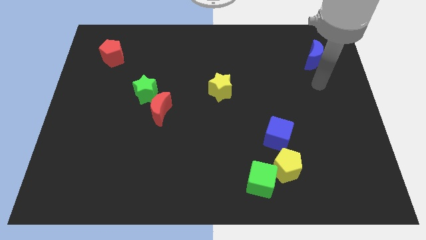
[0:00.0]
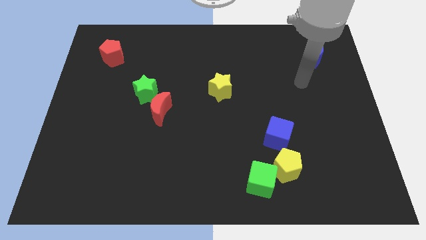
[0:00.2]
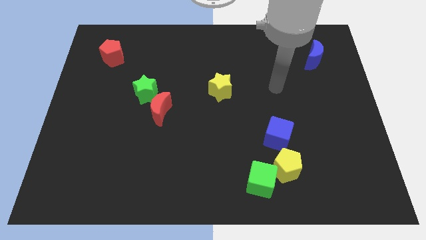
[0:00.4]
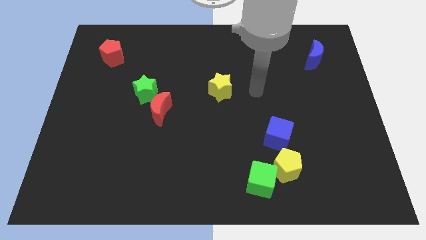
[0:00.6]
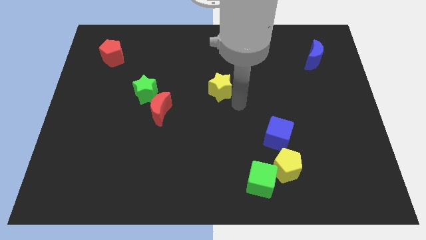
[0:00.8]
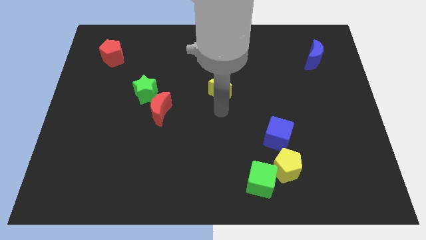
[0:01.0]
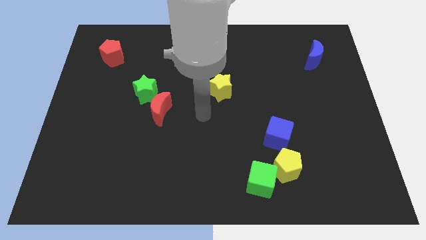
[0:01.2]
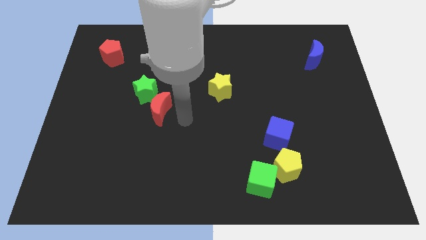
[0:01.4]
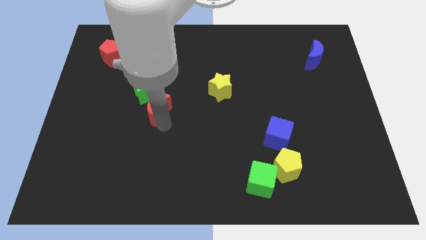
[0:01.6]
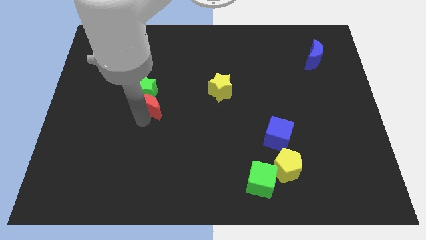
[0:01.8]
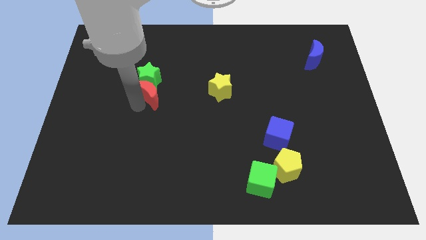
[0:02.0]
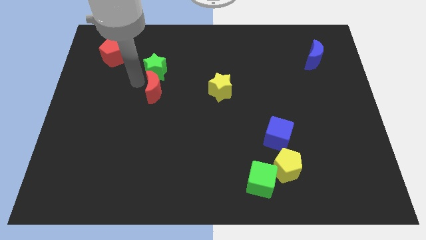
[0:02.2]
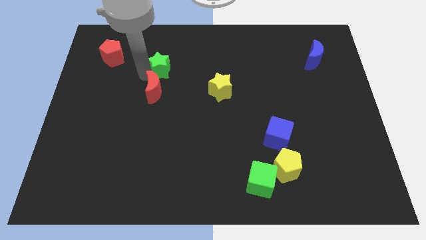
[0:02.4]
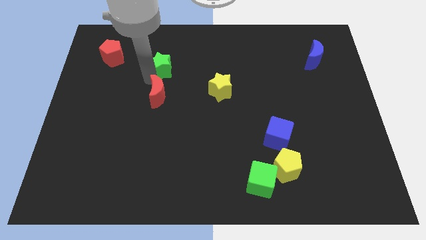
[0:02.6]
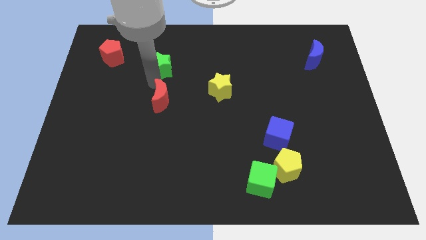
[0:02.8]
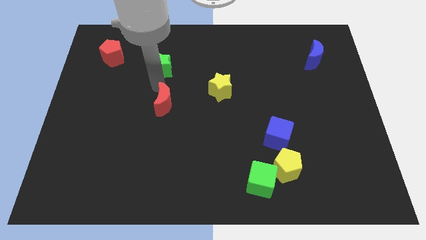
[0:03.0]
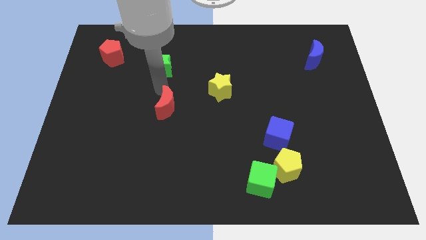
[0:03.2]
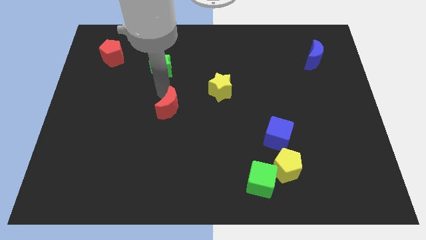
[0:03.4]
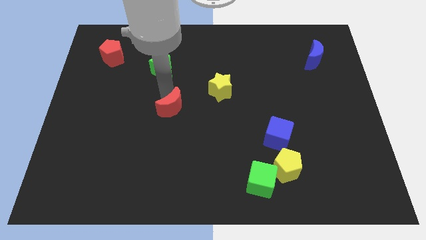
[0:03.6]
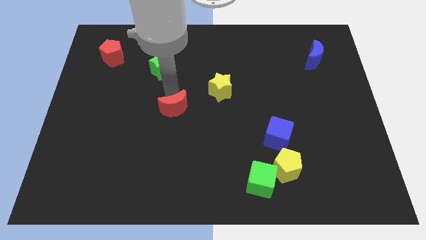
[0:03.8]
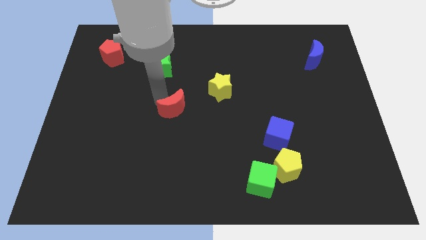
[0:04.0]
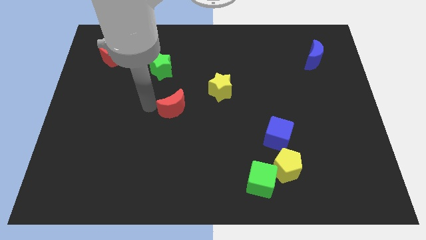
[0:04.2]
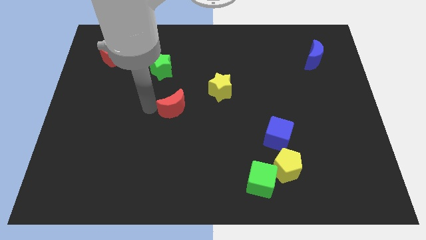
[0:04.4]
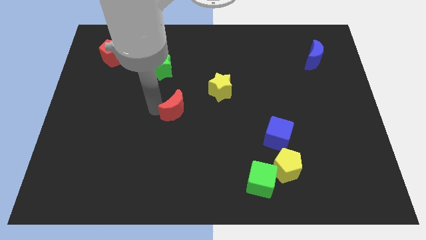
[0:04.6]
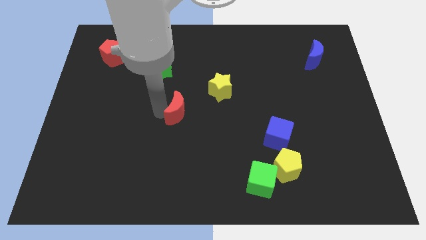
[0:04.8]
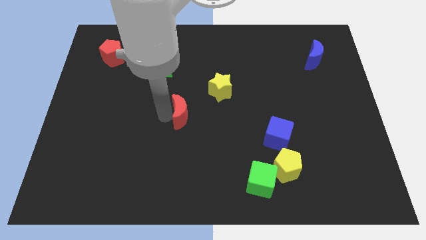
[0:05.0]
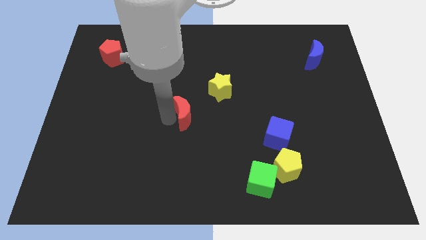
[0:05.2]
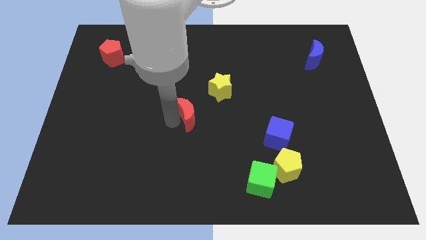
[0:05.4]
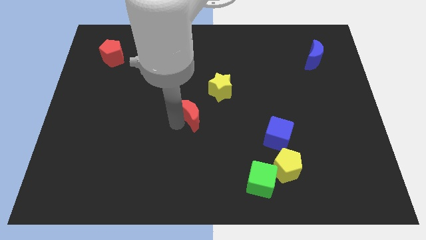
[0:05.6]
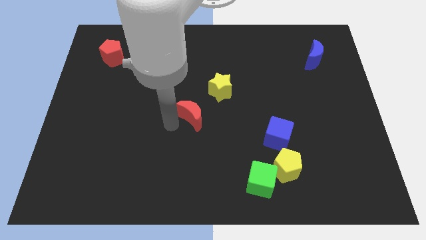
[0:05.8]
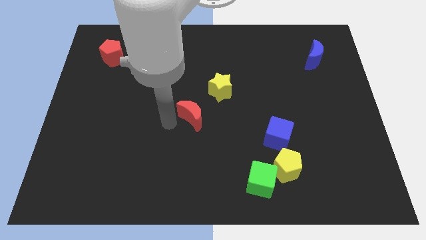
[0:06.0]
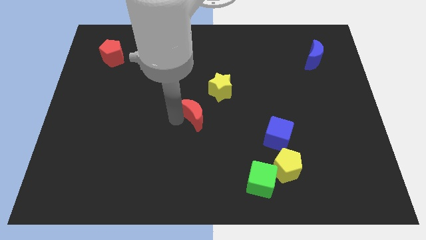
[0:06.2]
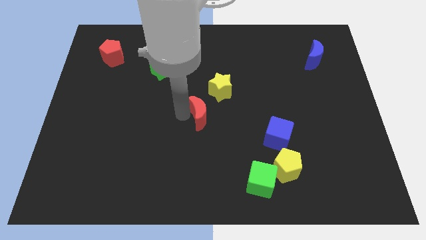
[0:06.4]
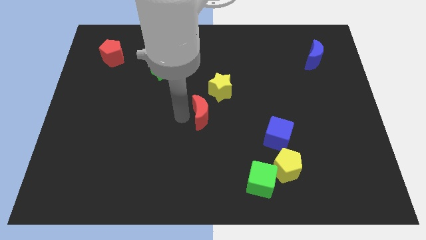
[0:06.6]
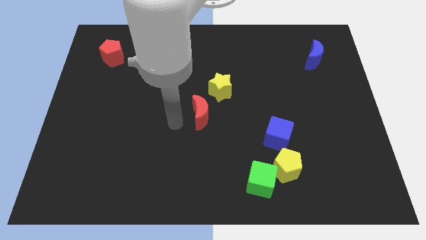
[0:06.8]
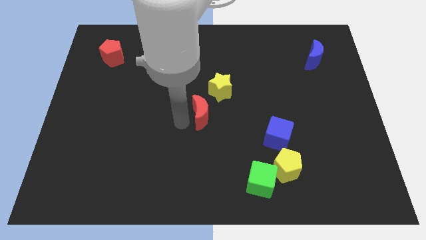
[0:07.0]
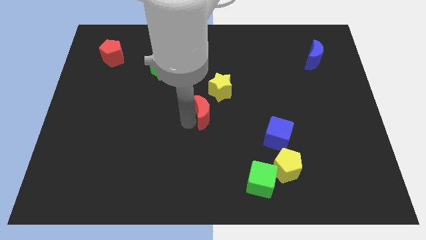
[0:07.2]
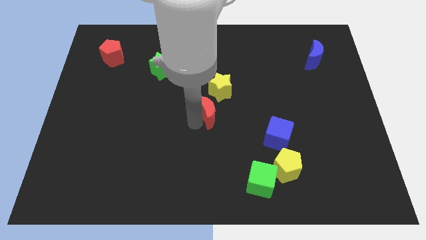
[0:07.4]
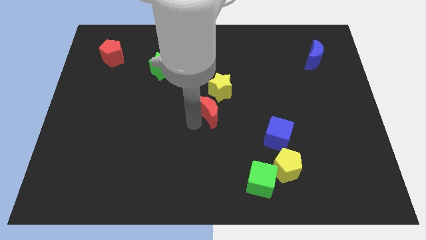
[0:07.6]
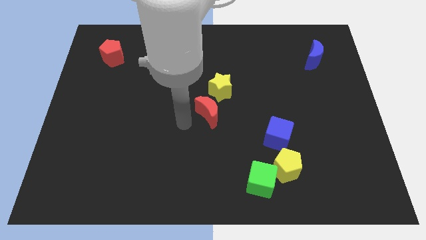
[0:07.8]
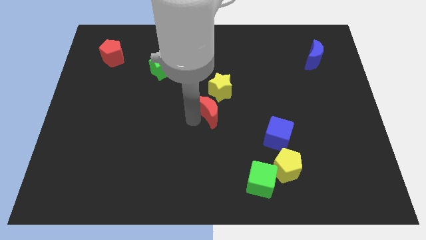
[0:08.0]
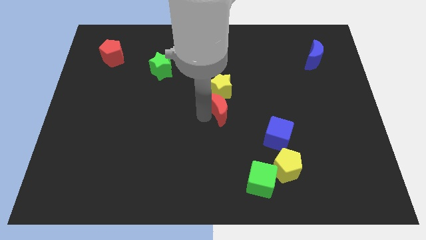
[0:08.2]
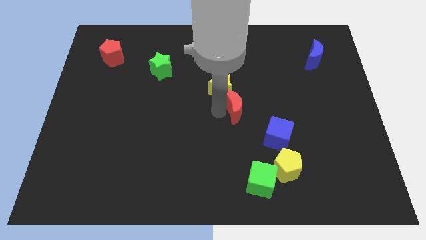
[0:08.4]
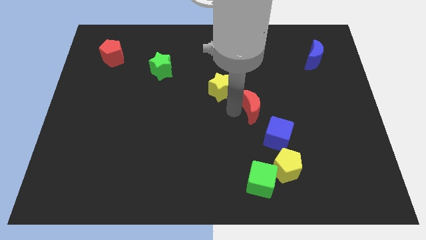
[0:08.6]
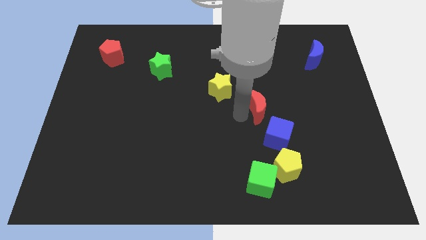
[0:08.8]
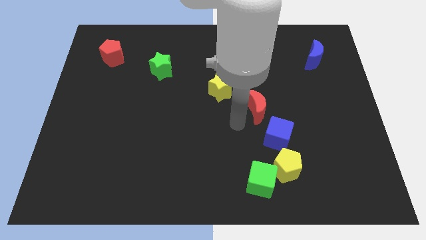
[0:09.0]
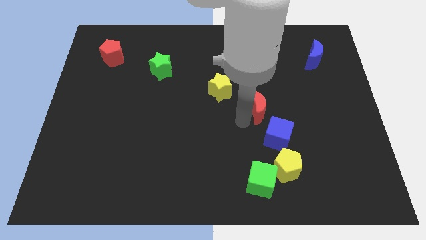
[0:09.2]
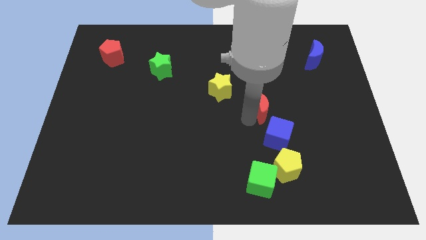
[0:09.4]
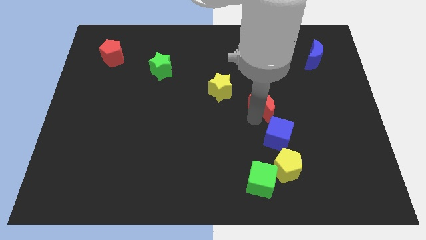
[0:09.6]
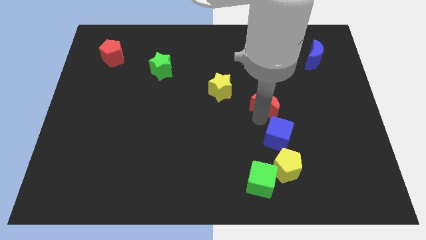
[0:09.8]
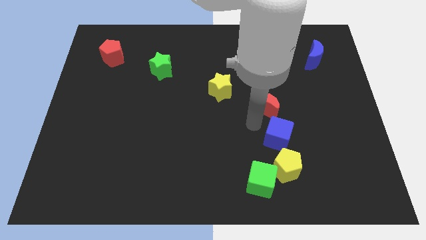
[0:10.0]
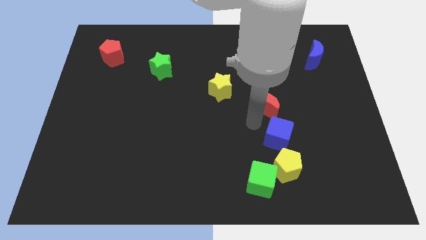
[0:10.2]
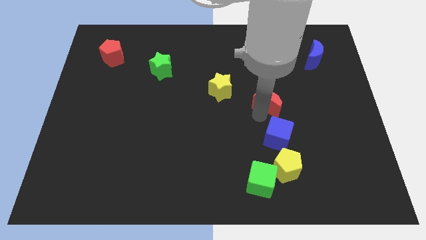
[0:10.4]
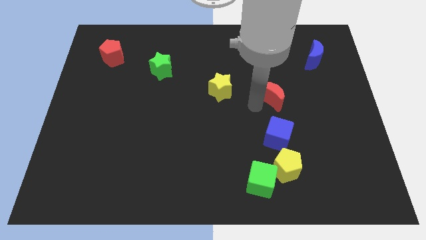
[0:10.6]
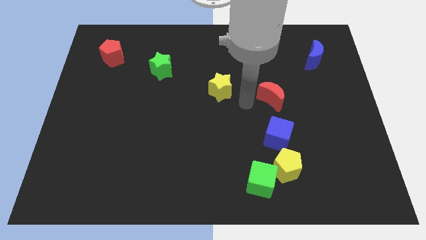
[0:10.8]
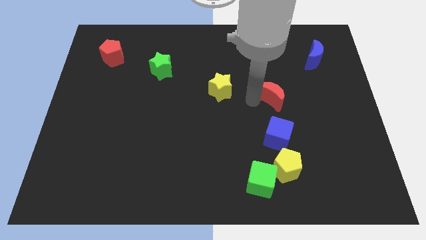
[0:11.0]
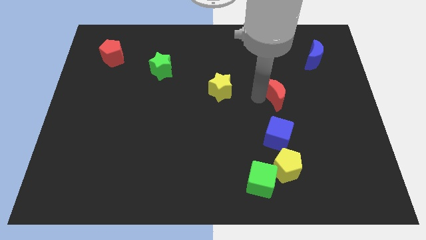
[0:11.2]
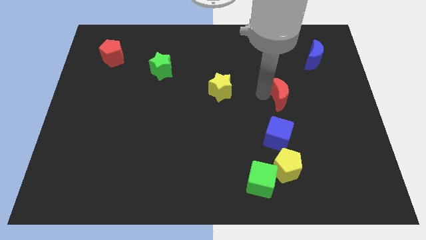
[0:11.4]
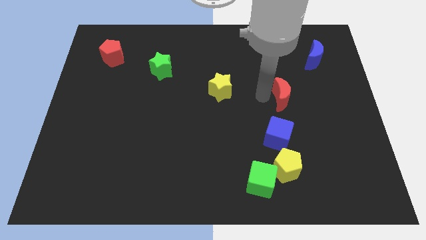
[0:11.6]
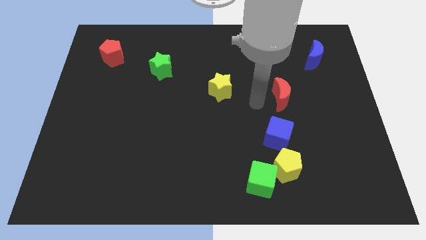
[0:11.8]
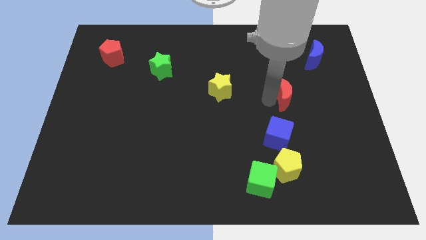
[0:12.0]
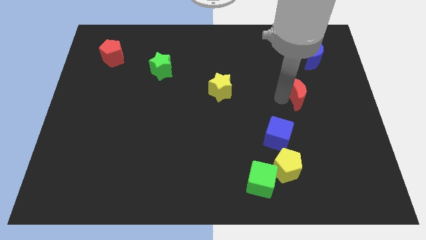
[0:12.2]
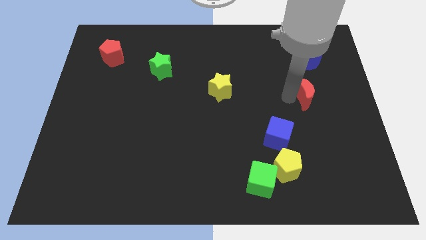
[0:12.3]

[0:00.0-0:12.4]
slide the red moon to the bottom of the blue moon

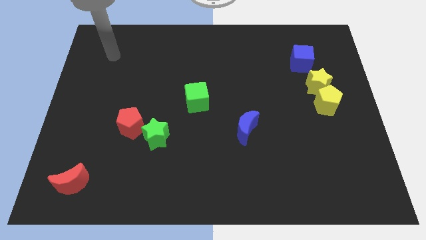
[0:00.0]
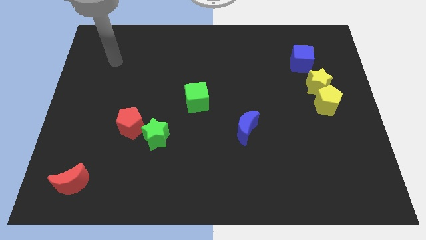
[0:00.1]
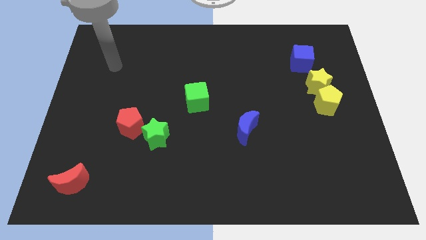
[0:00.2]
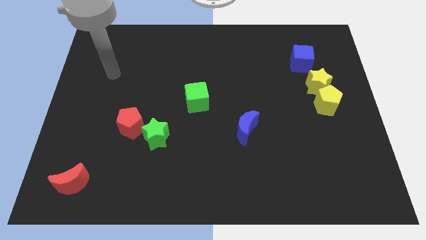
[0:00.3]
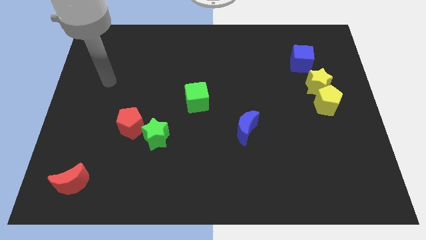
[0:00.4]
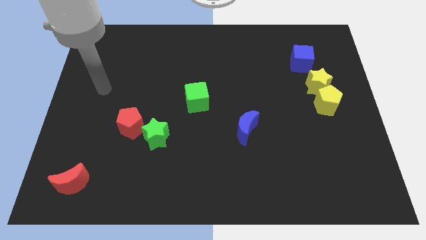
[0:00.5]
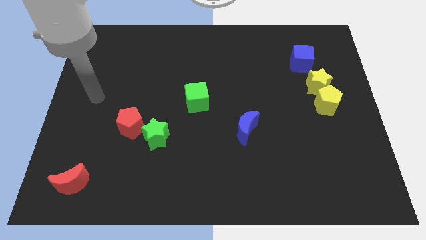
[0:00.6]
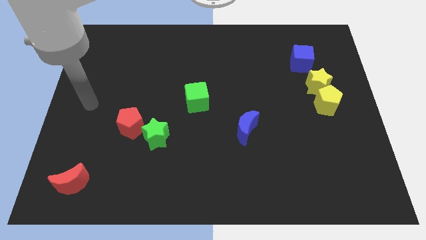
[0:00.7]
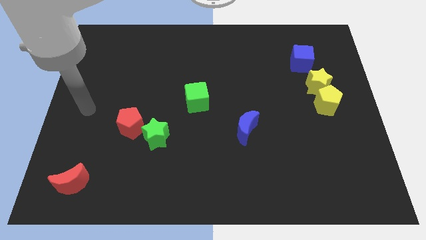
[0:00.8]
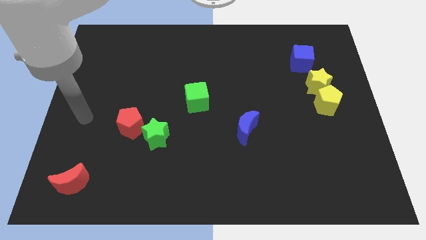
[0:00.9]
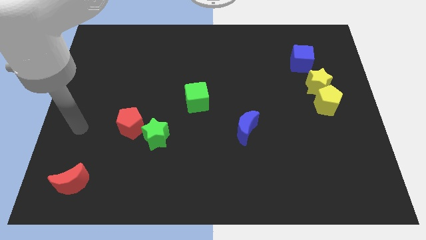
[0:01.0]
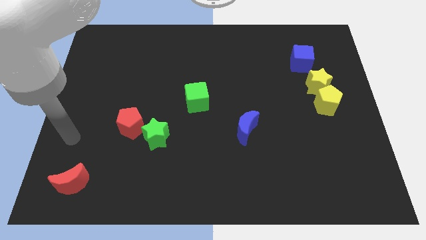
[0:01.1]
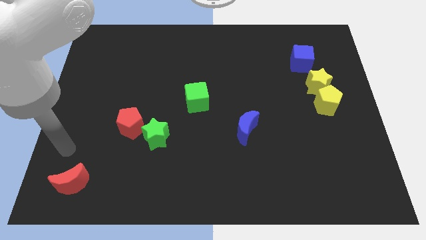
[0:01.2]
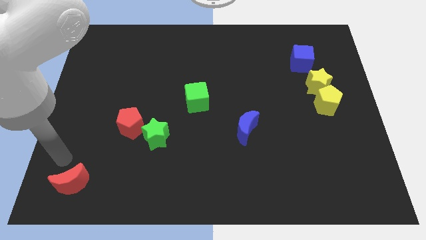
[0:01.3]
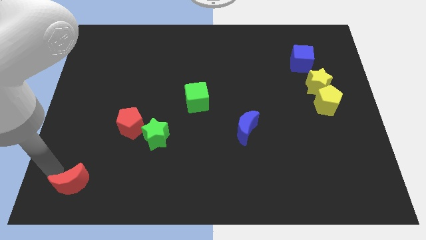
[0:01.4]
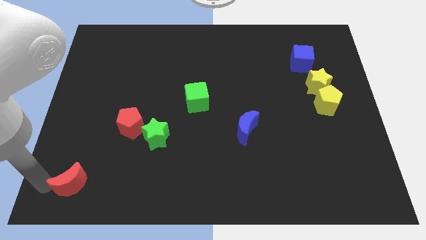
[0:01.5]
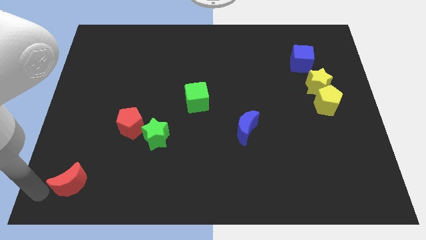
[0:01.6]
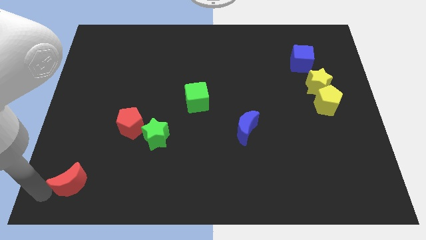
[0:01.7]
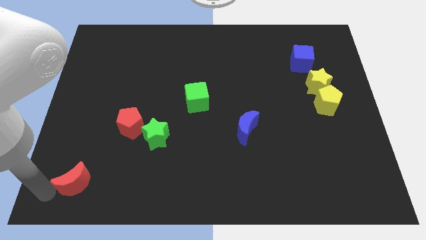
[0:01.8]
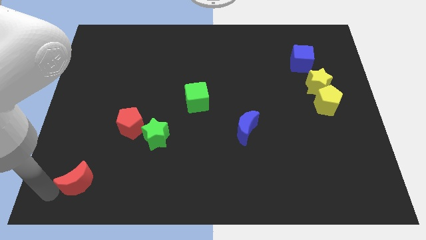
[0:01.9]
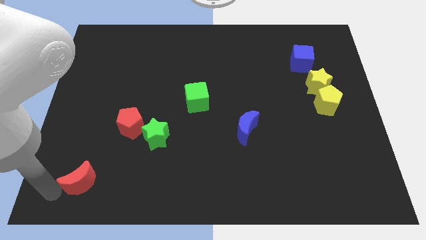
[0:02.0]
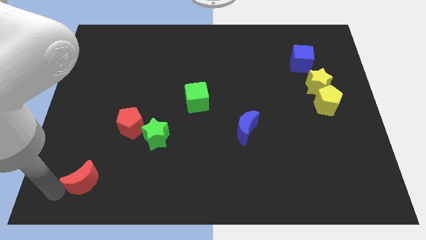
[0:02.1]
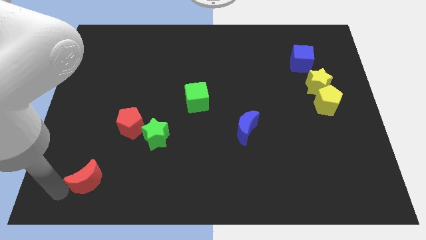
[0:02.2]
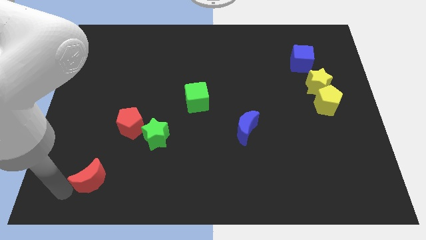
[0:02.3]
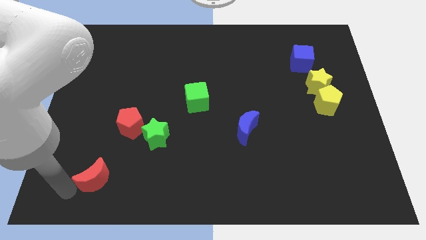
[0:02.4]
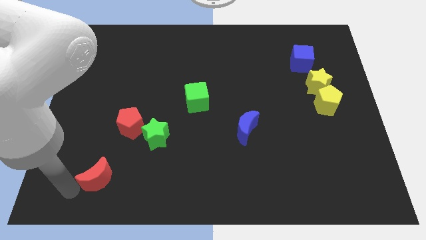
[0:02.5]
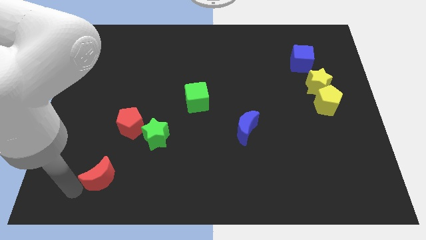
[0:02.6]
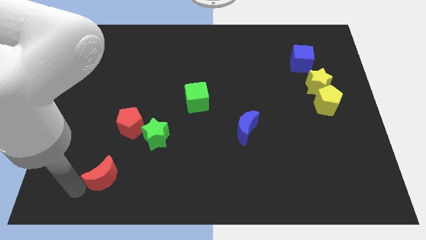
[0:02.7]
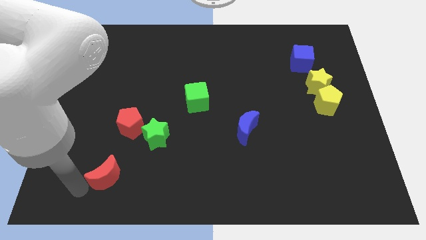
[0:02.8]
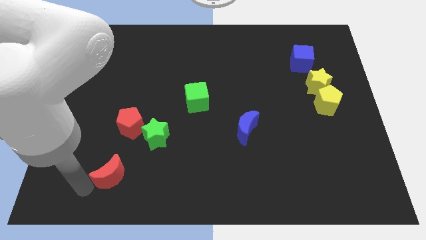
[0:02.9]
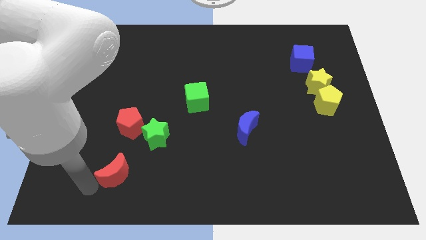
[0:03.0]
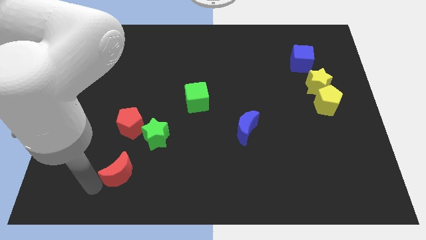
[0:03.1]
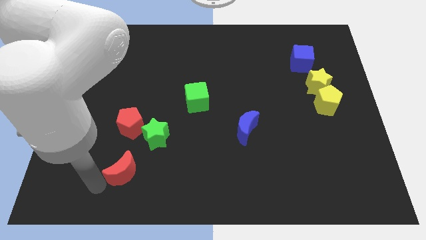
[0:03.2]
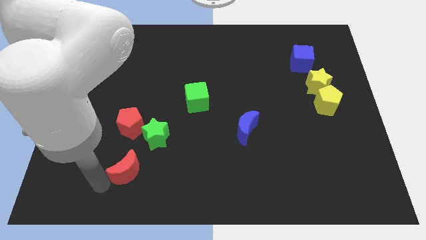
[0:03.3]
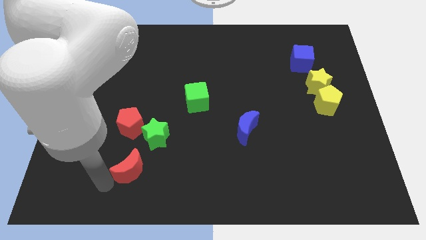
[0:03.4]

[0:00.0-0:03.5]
slide the red moon to the bottom side of the green star
